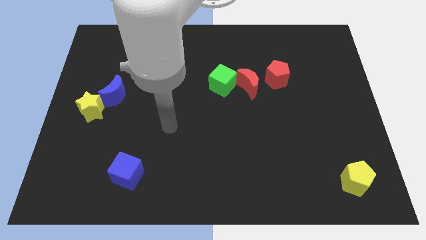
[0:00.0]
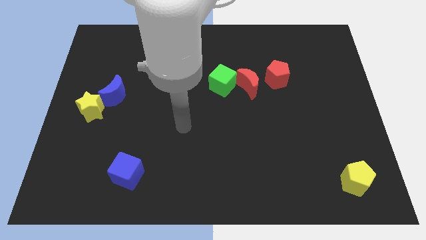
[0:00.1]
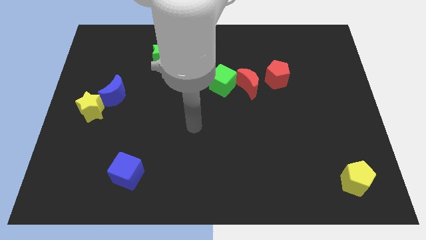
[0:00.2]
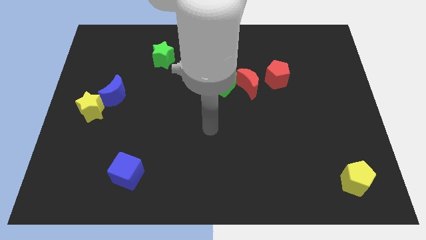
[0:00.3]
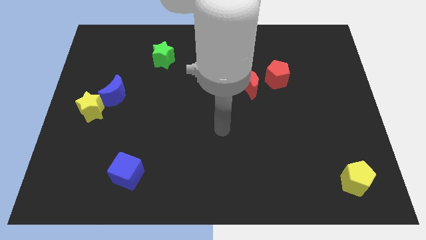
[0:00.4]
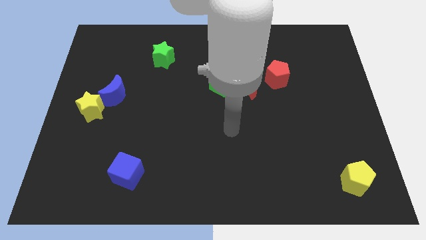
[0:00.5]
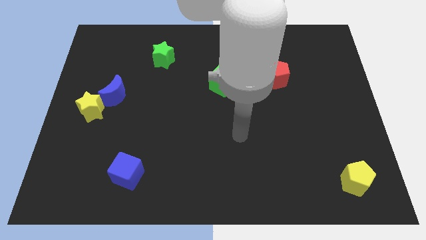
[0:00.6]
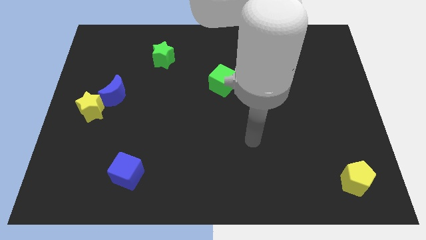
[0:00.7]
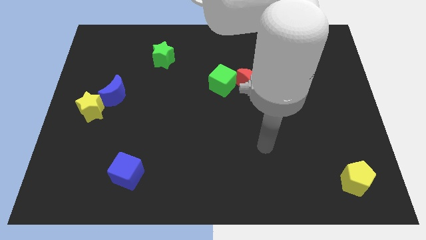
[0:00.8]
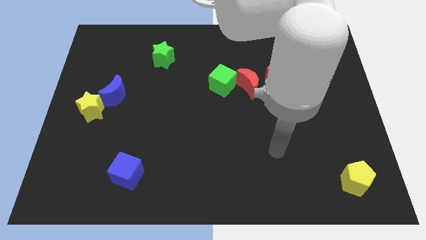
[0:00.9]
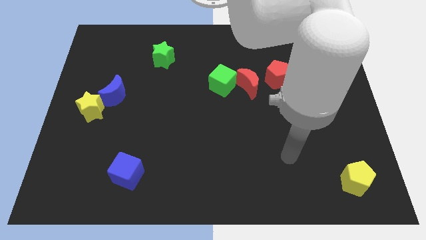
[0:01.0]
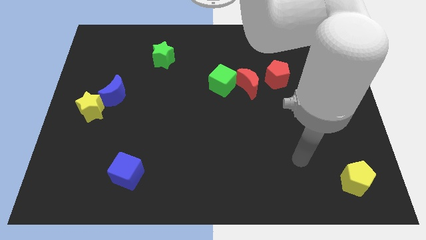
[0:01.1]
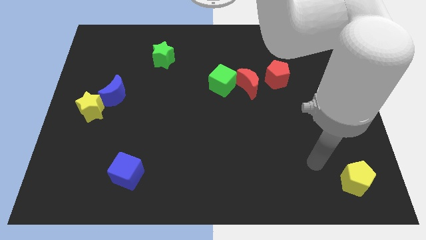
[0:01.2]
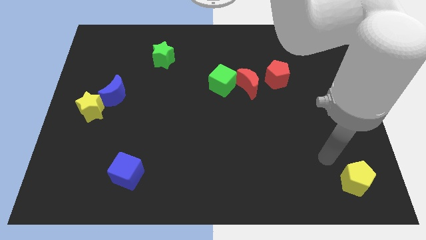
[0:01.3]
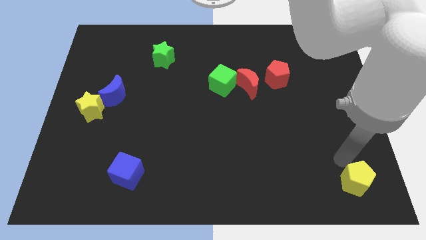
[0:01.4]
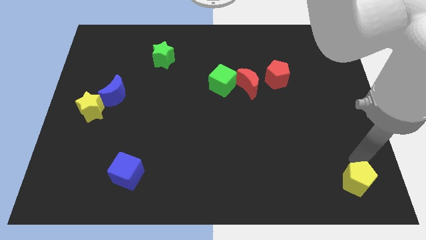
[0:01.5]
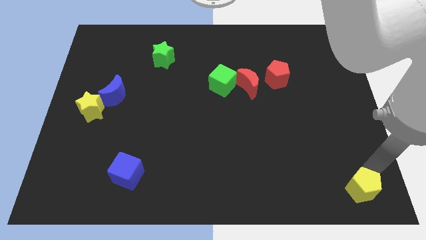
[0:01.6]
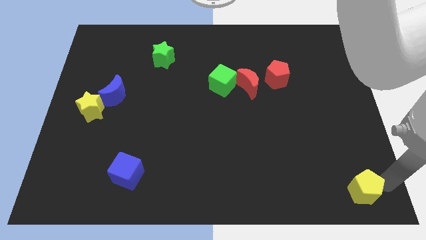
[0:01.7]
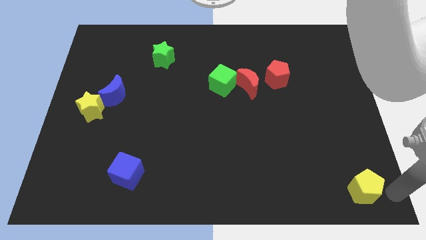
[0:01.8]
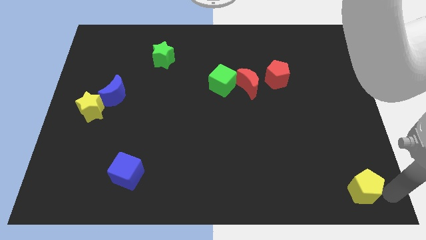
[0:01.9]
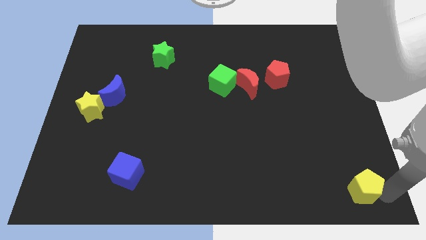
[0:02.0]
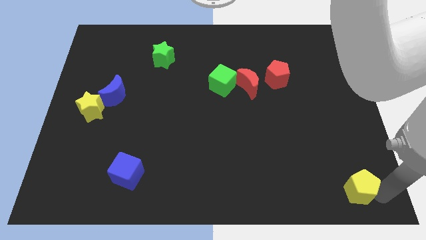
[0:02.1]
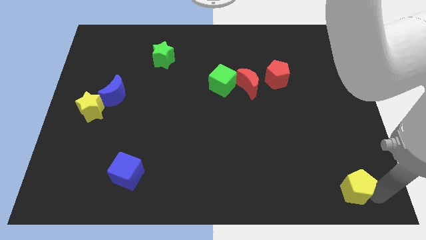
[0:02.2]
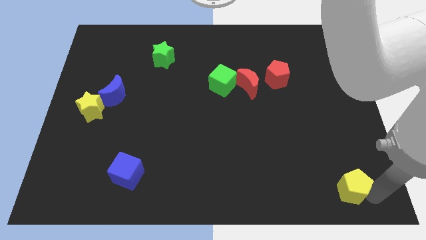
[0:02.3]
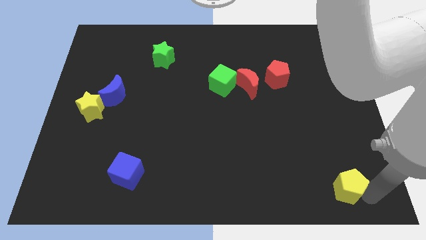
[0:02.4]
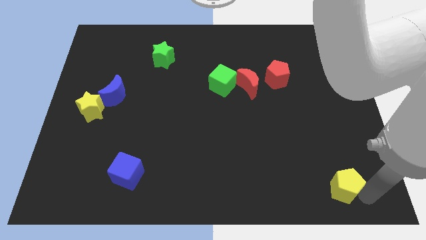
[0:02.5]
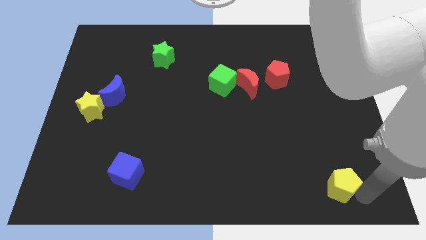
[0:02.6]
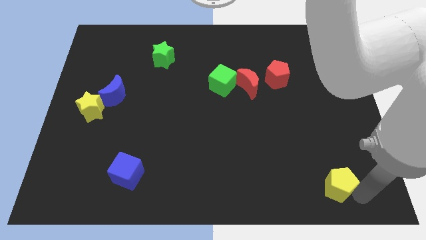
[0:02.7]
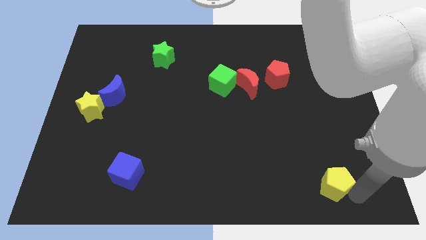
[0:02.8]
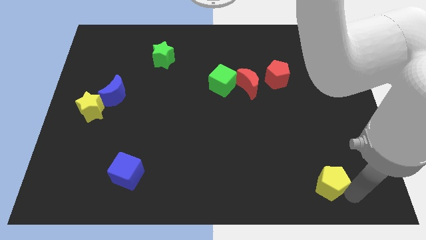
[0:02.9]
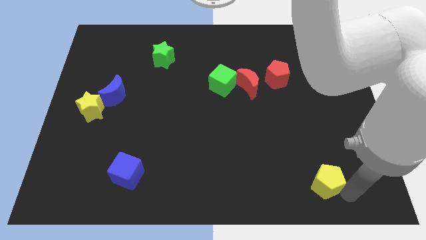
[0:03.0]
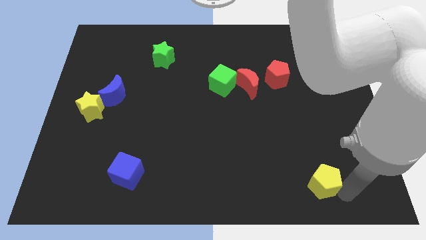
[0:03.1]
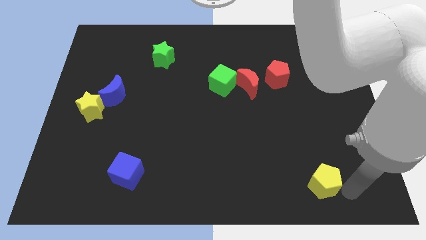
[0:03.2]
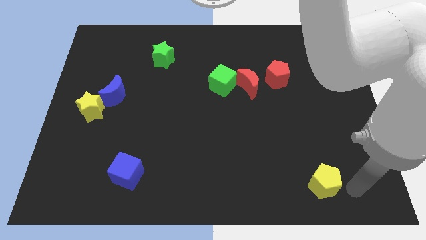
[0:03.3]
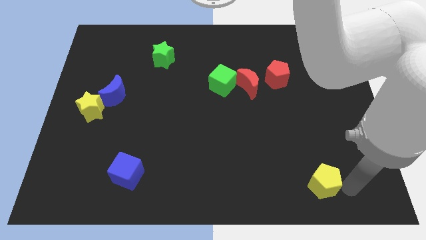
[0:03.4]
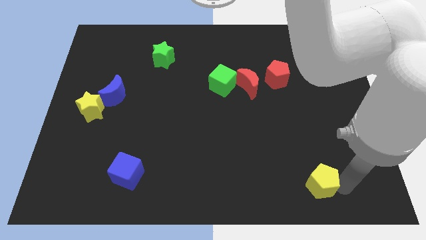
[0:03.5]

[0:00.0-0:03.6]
push the yellow pentagon slightly left

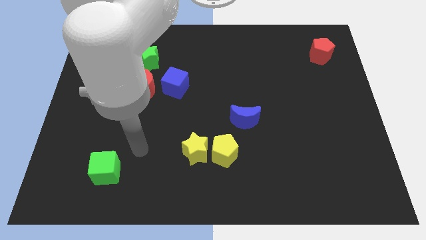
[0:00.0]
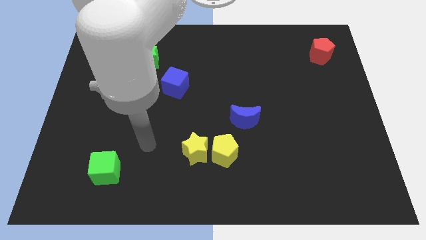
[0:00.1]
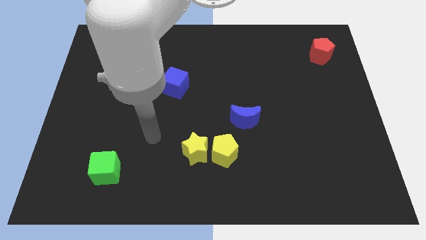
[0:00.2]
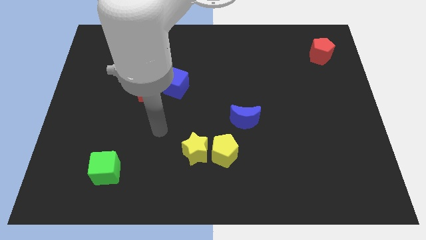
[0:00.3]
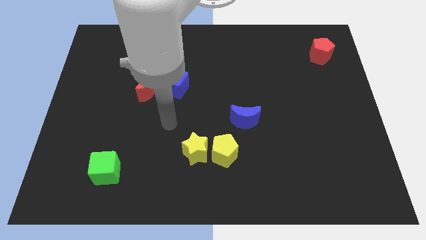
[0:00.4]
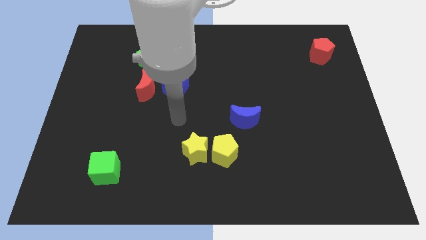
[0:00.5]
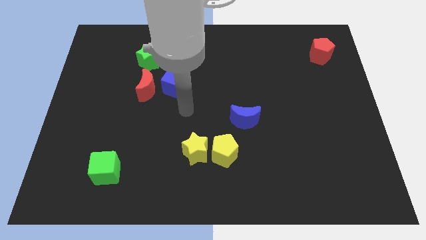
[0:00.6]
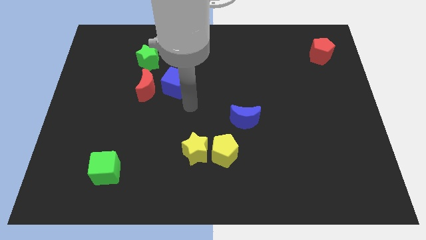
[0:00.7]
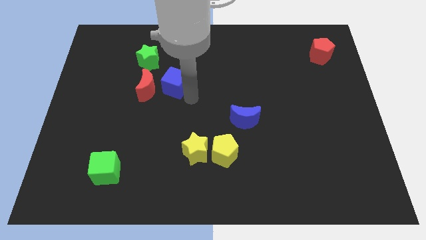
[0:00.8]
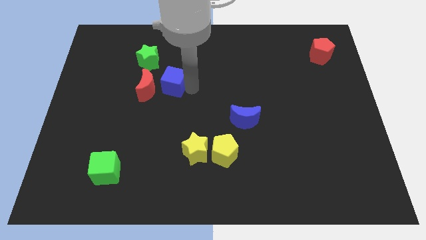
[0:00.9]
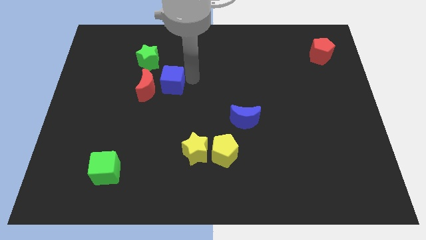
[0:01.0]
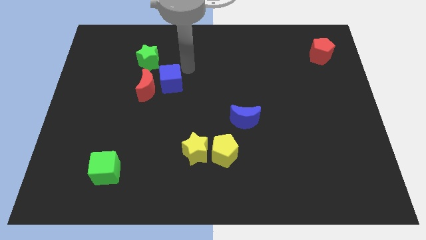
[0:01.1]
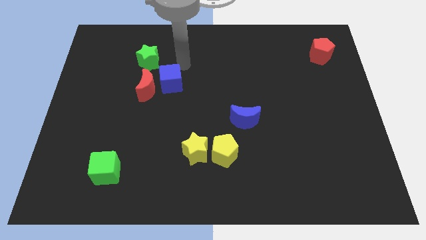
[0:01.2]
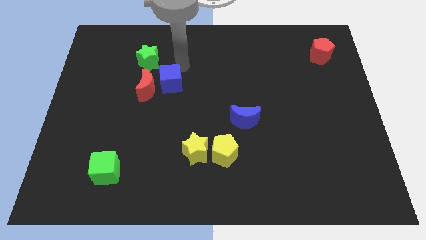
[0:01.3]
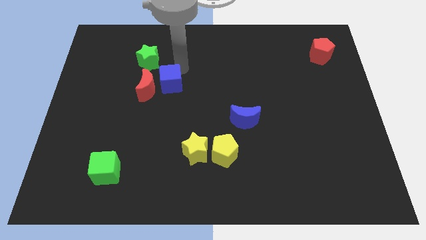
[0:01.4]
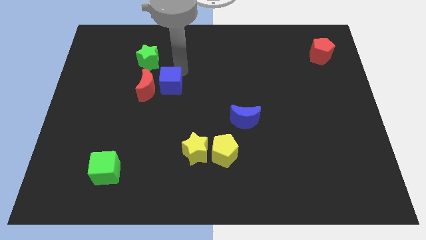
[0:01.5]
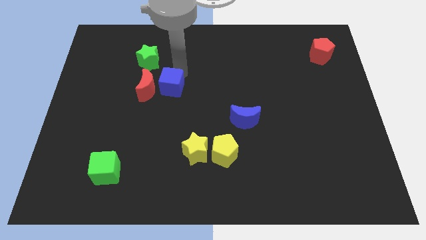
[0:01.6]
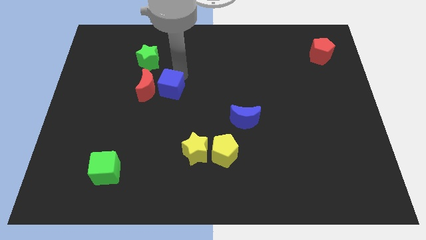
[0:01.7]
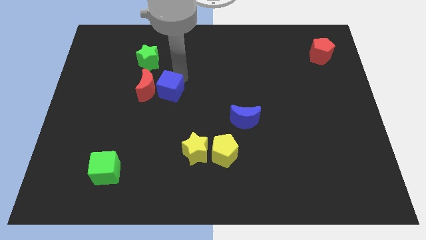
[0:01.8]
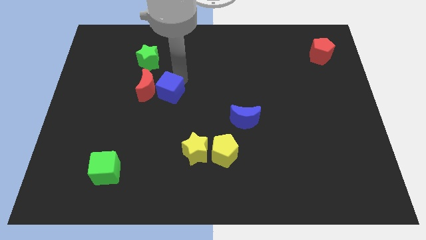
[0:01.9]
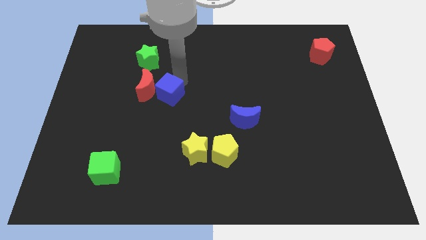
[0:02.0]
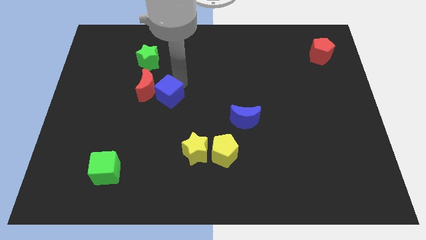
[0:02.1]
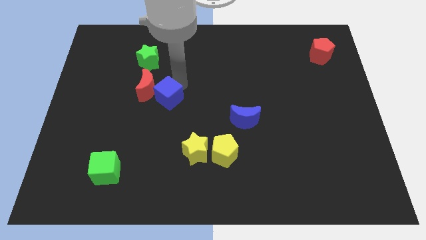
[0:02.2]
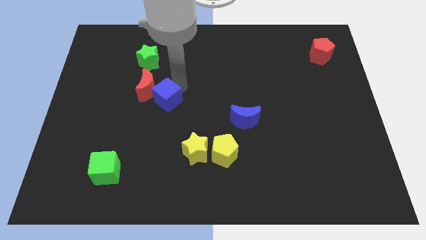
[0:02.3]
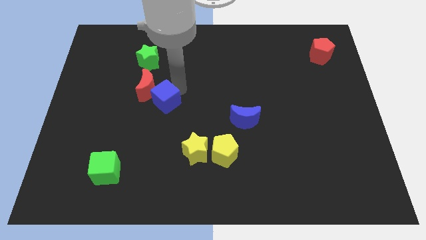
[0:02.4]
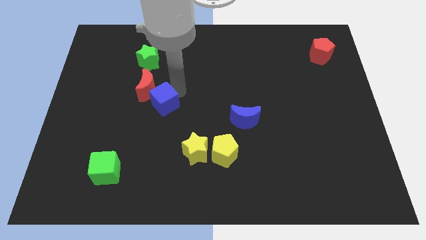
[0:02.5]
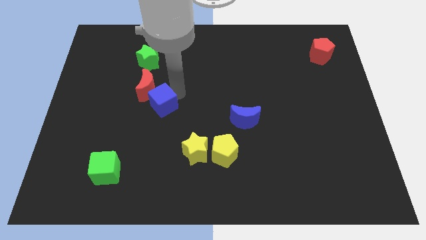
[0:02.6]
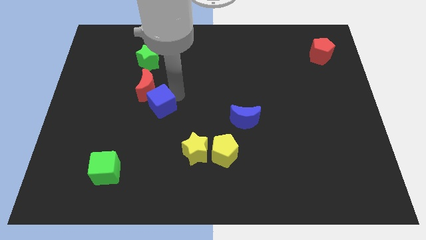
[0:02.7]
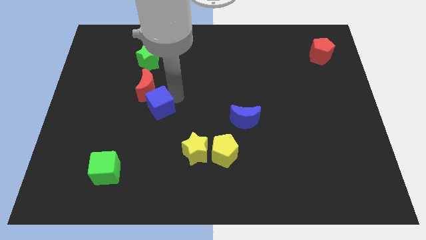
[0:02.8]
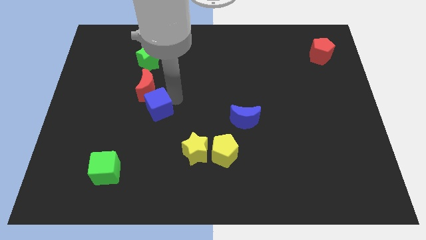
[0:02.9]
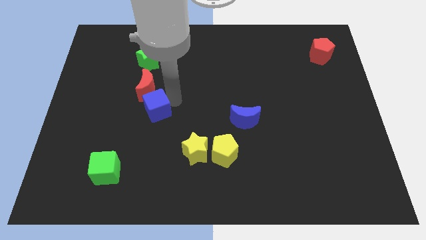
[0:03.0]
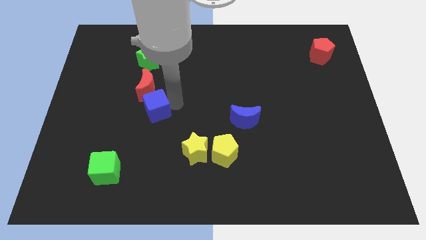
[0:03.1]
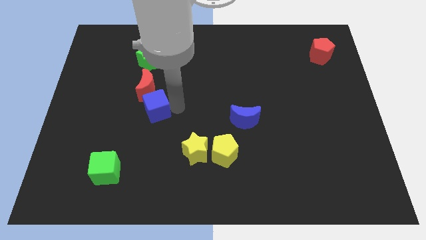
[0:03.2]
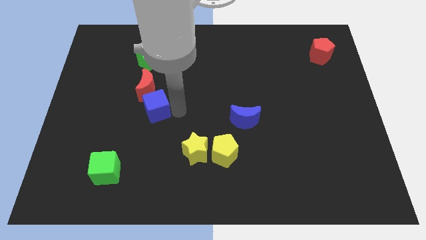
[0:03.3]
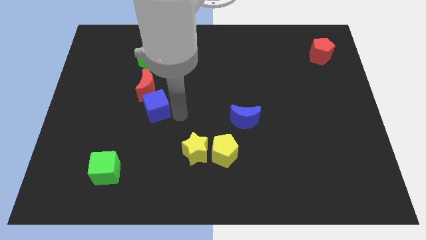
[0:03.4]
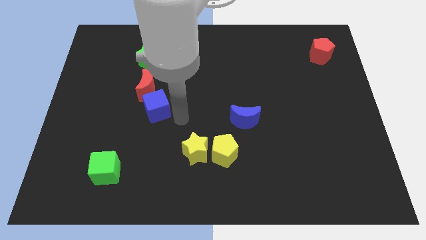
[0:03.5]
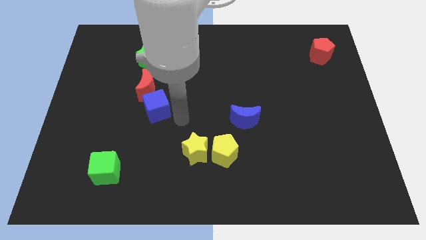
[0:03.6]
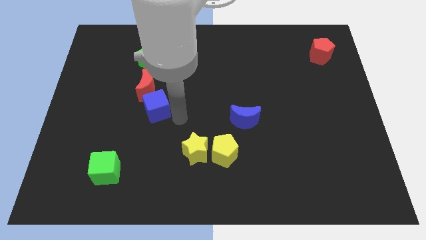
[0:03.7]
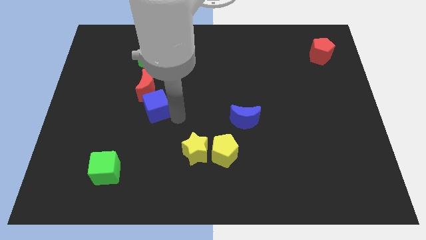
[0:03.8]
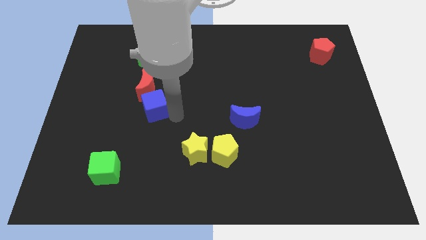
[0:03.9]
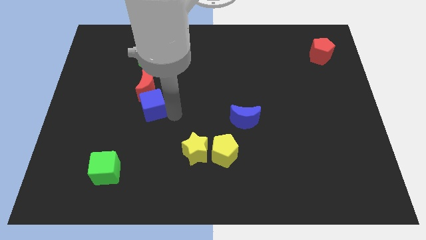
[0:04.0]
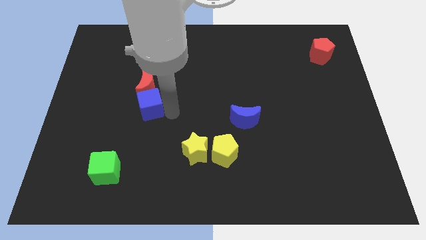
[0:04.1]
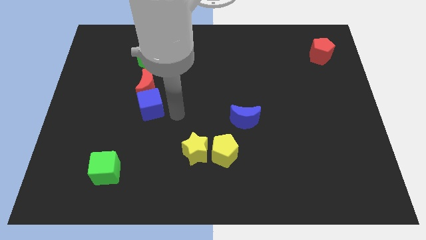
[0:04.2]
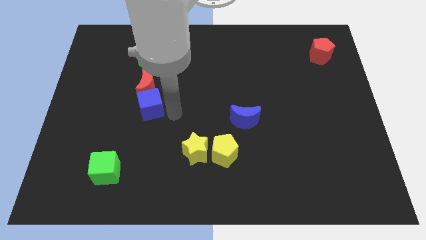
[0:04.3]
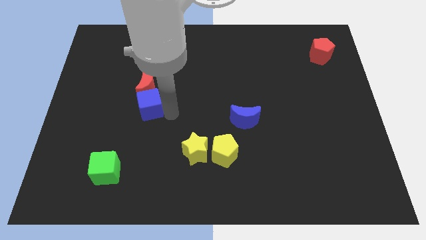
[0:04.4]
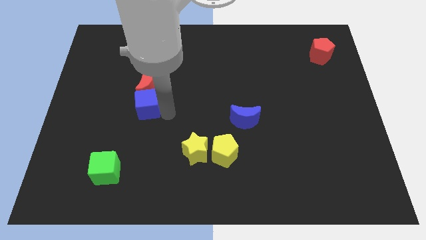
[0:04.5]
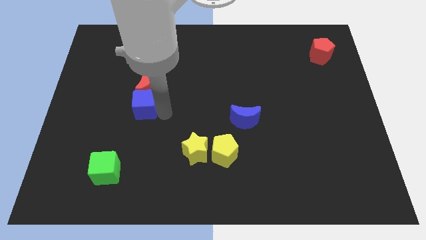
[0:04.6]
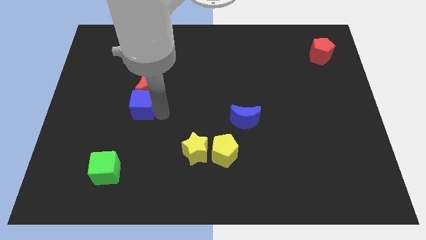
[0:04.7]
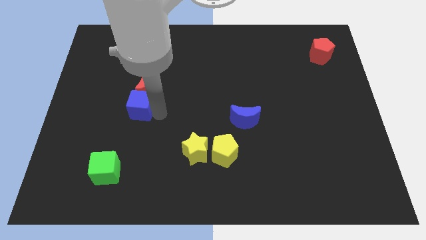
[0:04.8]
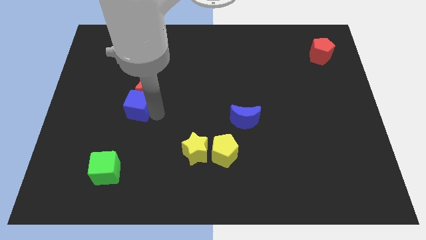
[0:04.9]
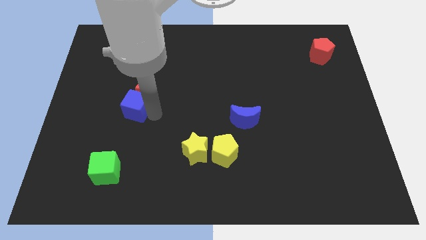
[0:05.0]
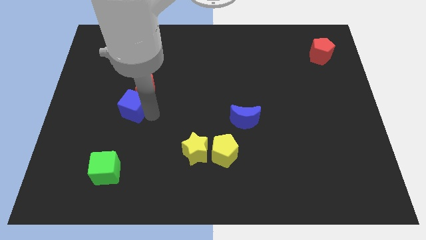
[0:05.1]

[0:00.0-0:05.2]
push the blue cube to the left a little
